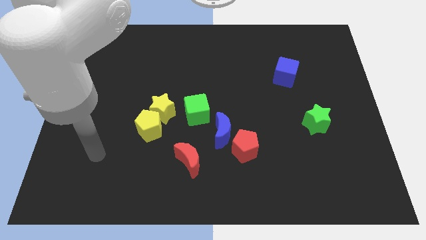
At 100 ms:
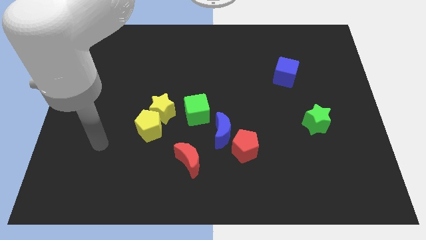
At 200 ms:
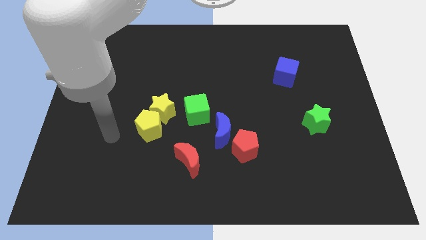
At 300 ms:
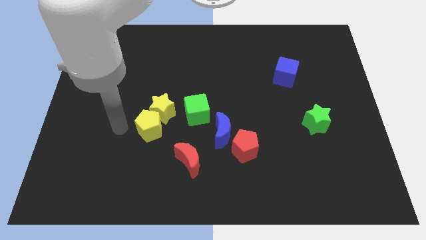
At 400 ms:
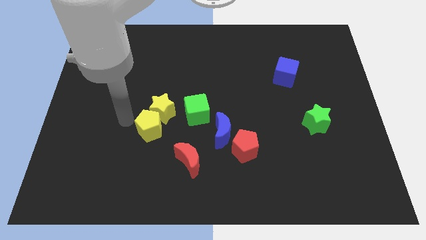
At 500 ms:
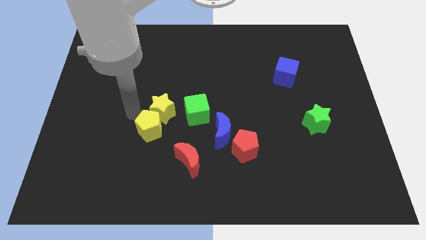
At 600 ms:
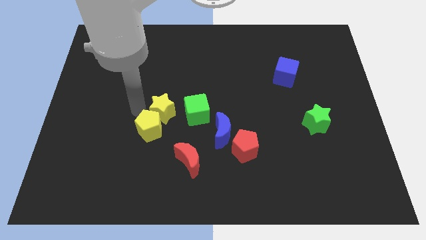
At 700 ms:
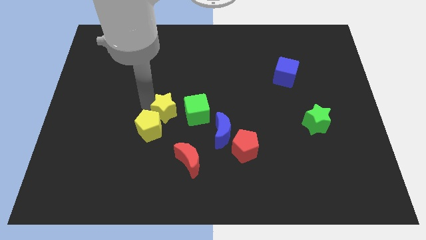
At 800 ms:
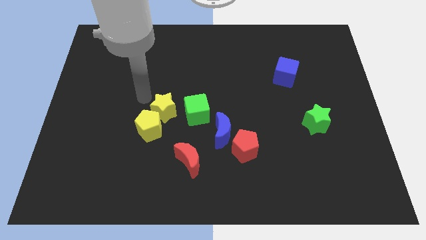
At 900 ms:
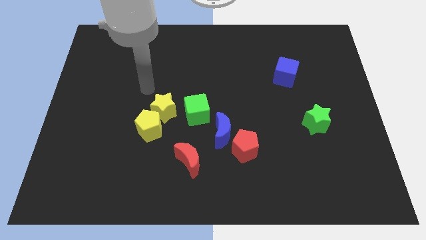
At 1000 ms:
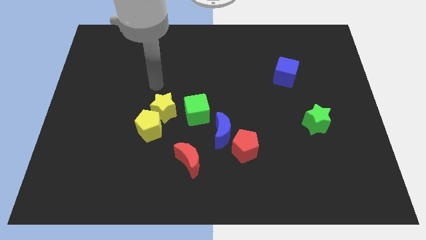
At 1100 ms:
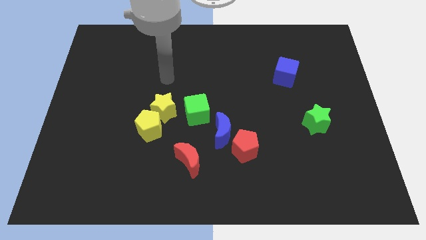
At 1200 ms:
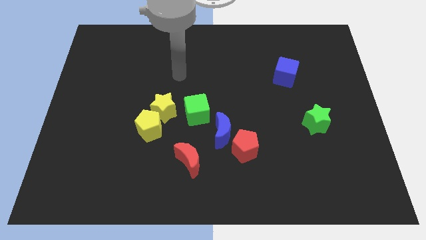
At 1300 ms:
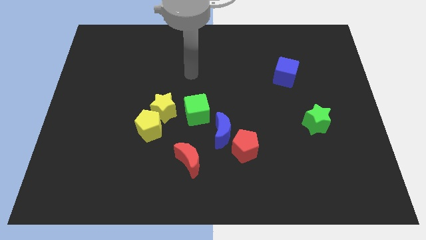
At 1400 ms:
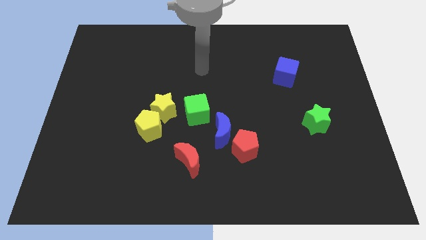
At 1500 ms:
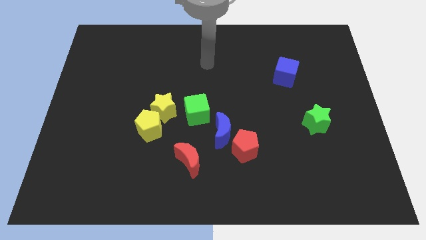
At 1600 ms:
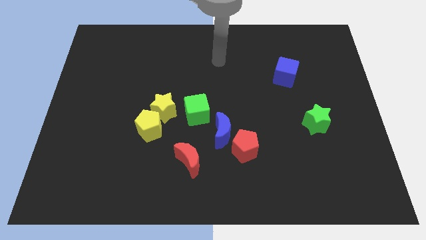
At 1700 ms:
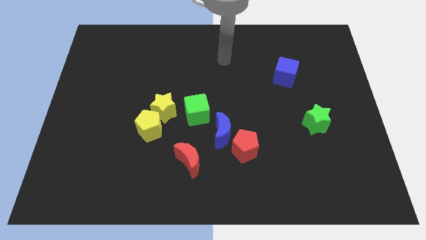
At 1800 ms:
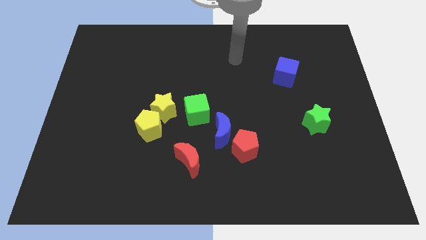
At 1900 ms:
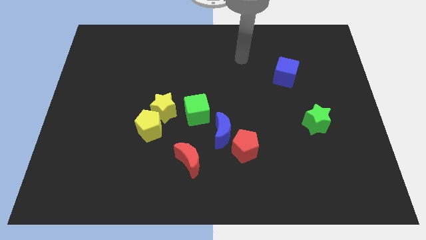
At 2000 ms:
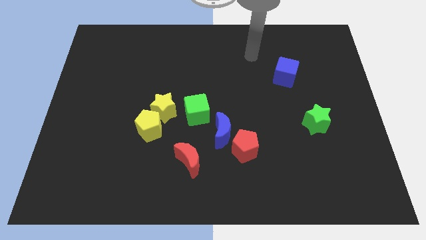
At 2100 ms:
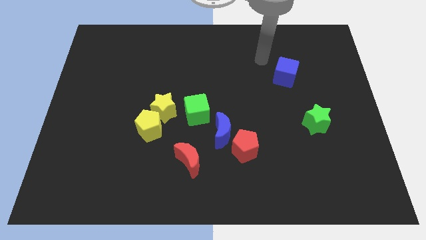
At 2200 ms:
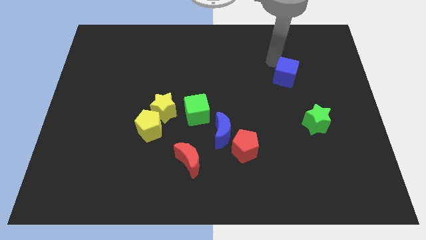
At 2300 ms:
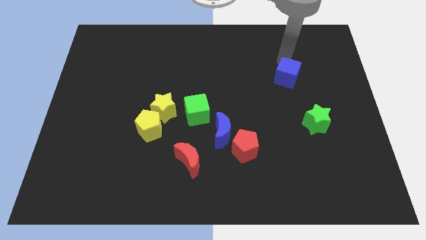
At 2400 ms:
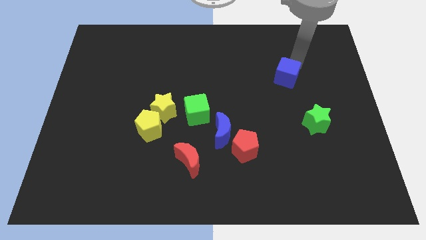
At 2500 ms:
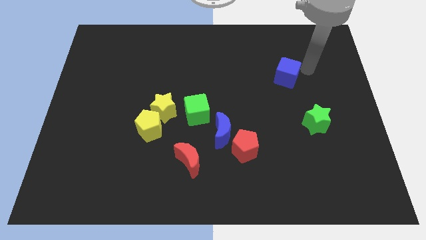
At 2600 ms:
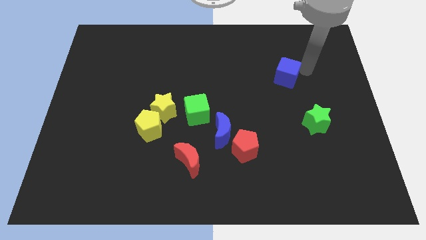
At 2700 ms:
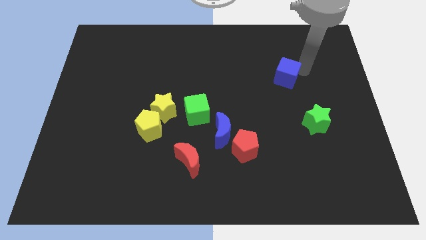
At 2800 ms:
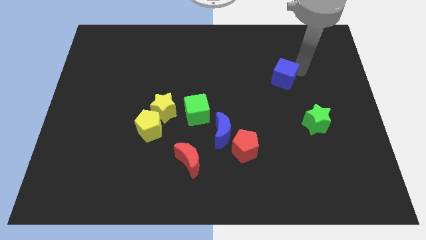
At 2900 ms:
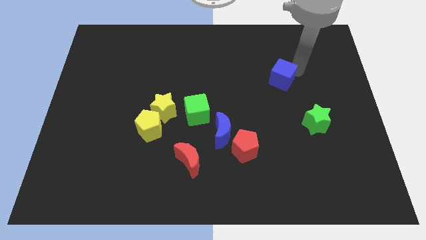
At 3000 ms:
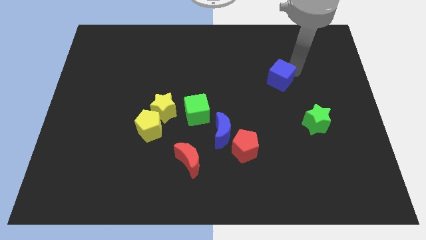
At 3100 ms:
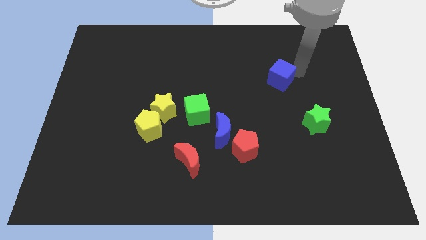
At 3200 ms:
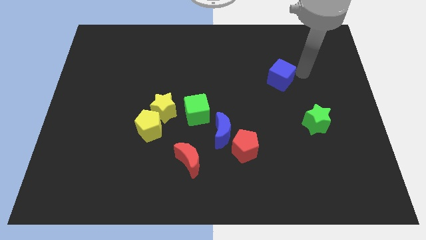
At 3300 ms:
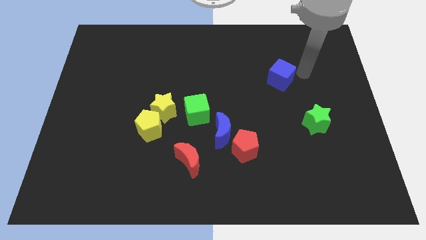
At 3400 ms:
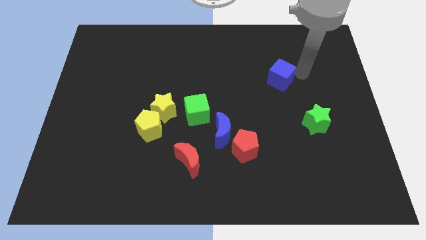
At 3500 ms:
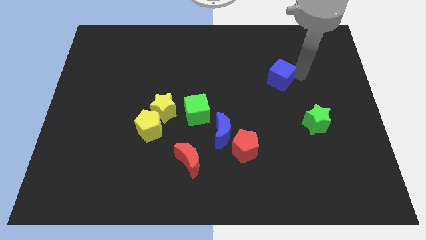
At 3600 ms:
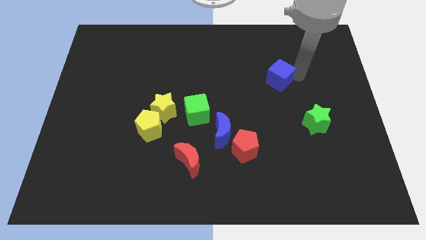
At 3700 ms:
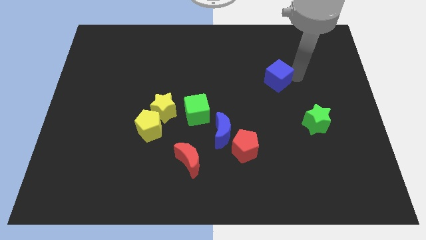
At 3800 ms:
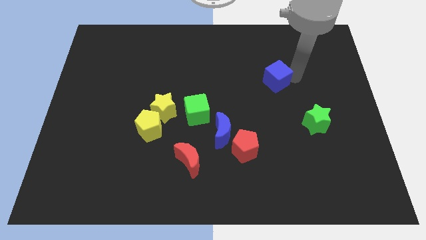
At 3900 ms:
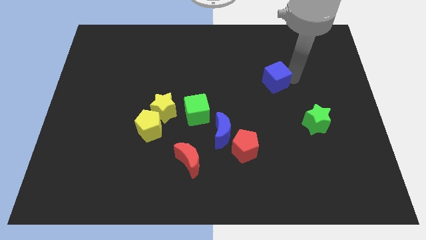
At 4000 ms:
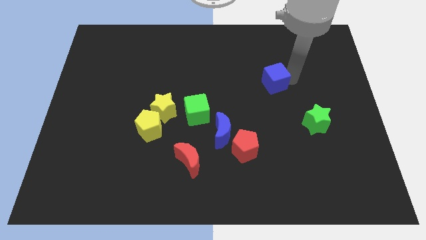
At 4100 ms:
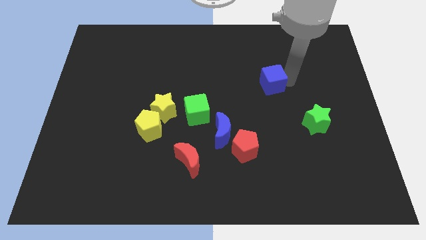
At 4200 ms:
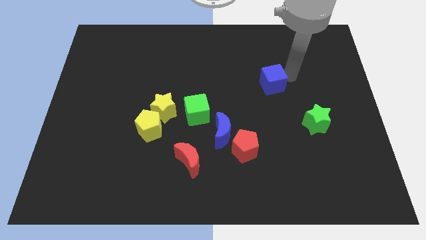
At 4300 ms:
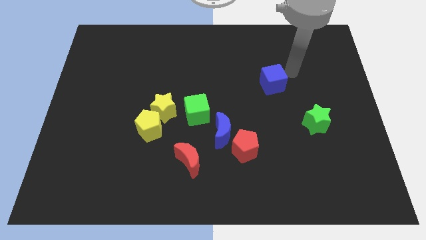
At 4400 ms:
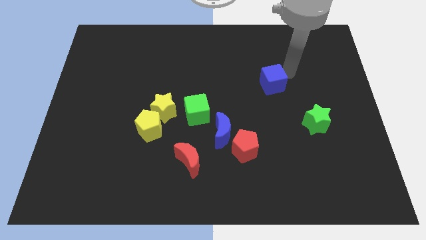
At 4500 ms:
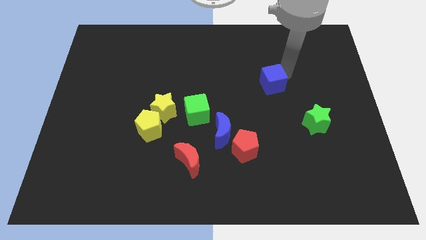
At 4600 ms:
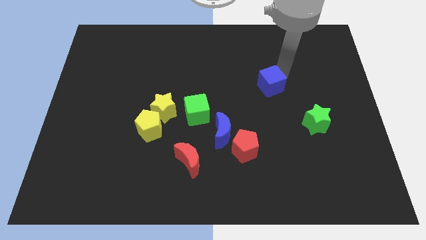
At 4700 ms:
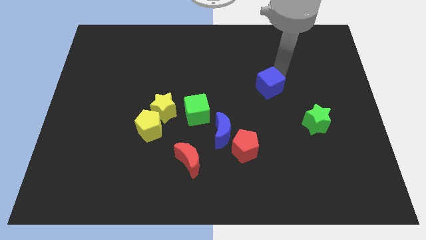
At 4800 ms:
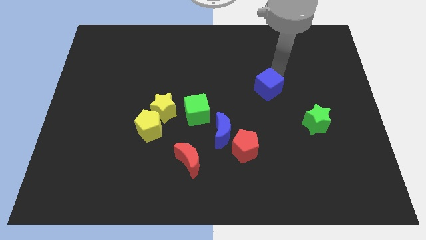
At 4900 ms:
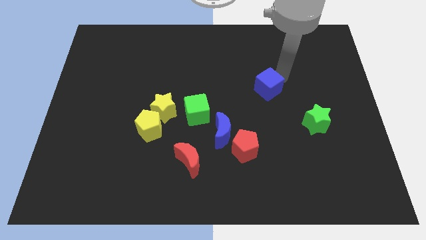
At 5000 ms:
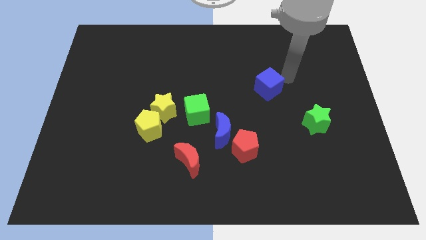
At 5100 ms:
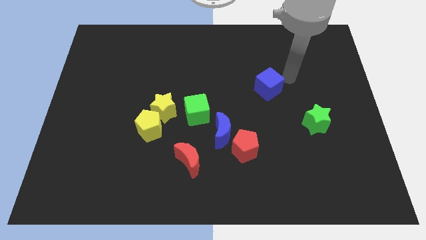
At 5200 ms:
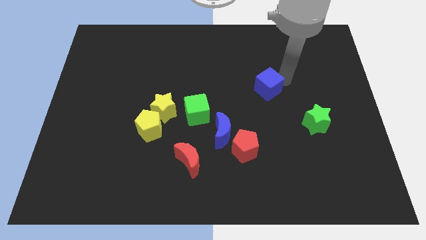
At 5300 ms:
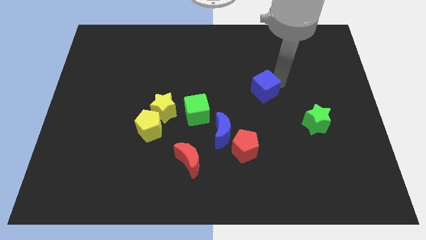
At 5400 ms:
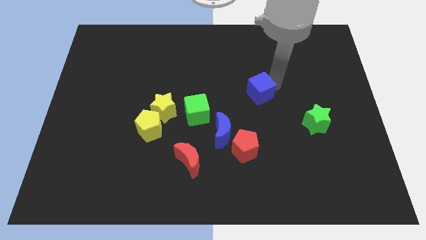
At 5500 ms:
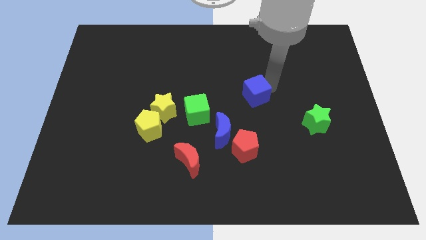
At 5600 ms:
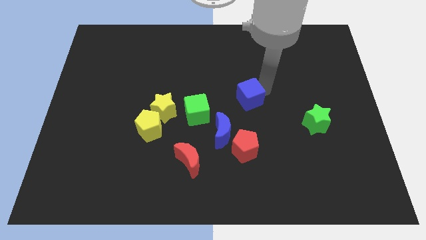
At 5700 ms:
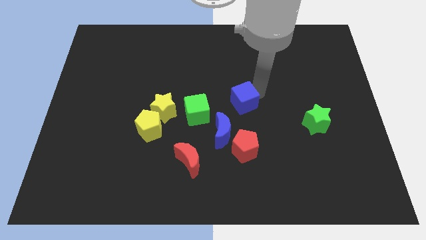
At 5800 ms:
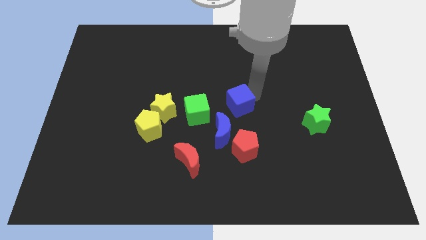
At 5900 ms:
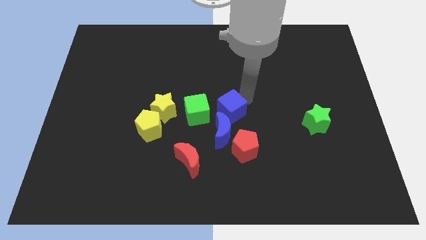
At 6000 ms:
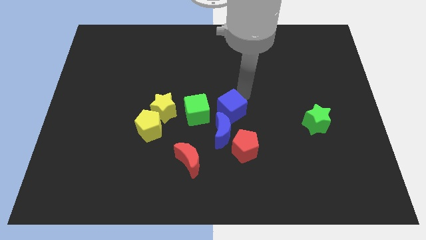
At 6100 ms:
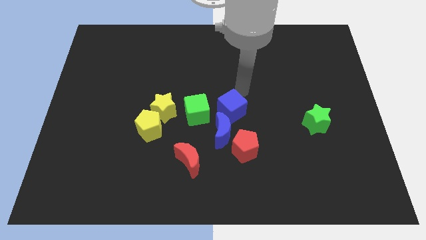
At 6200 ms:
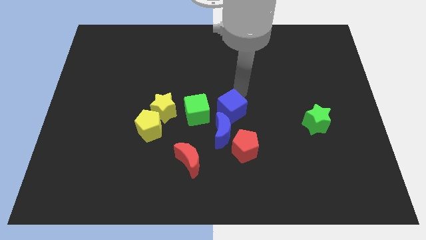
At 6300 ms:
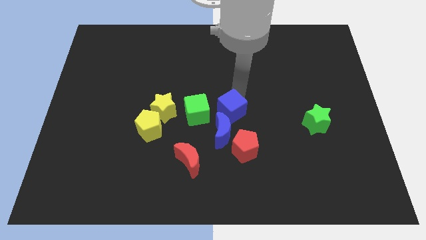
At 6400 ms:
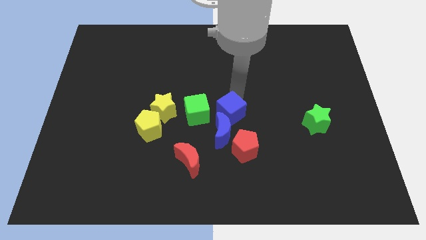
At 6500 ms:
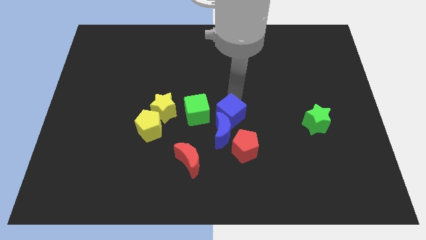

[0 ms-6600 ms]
move the blue cube to the top left of the red pentagon

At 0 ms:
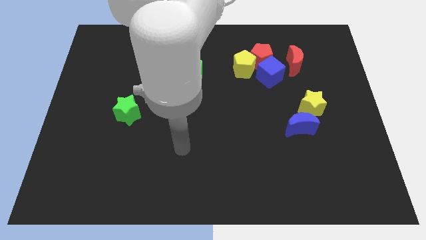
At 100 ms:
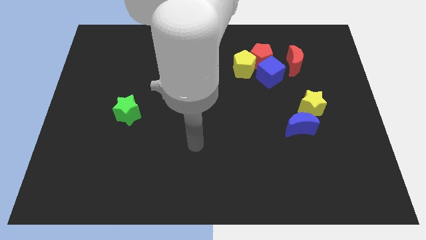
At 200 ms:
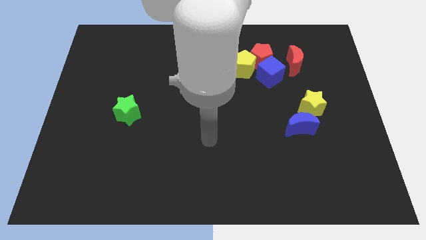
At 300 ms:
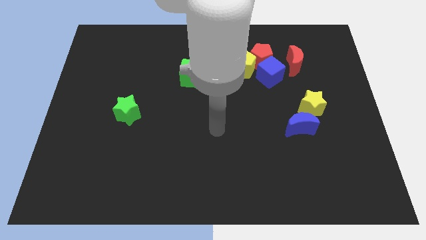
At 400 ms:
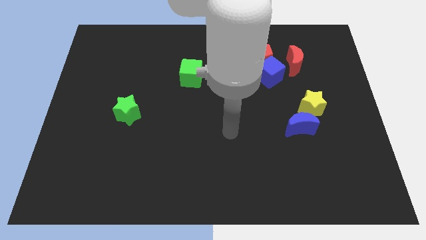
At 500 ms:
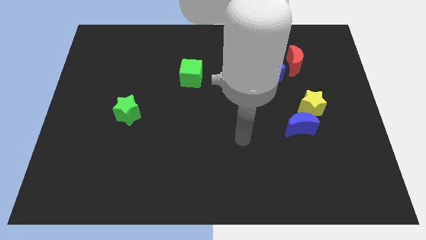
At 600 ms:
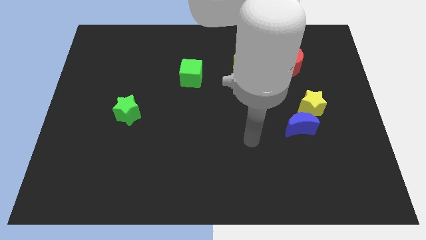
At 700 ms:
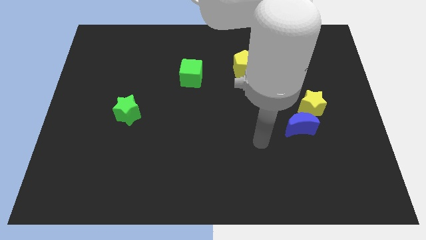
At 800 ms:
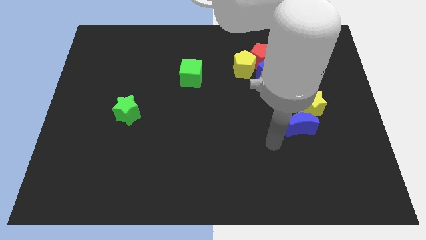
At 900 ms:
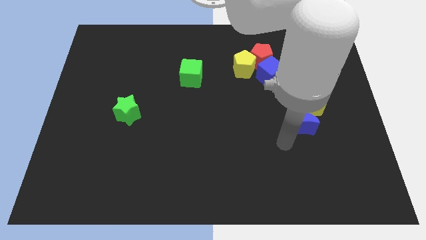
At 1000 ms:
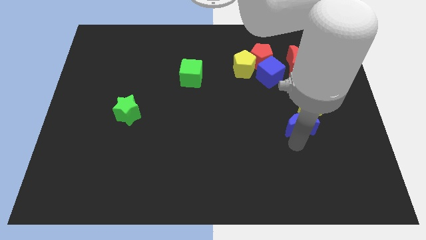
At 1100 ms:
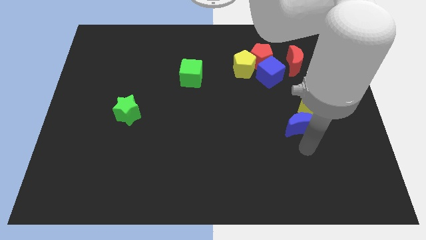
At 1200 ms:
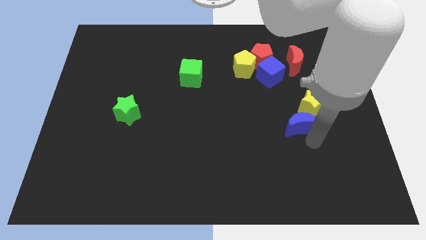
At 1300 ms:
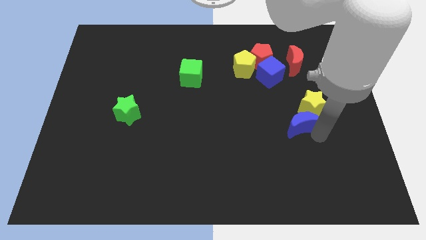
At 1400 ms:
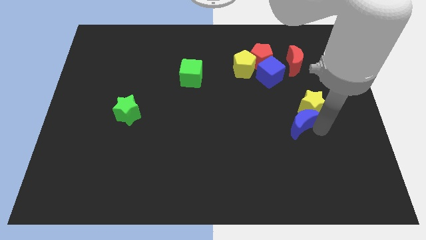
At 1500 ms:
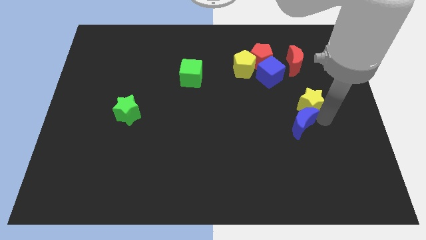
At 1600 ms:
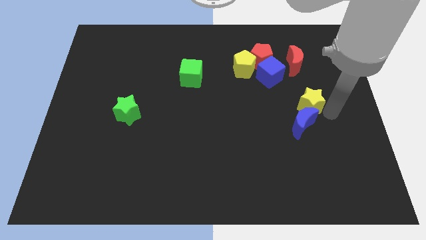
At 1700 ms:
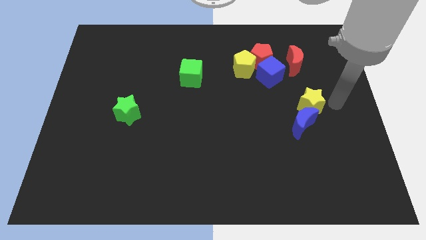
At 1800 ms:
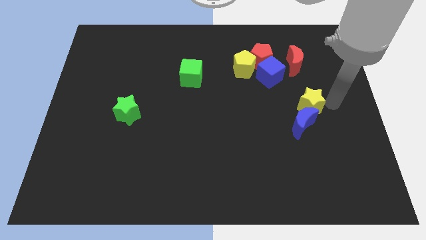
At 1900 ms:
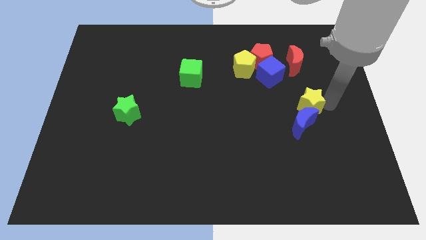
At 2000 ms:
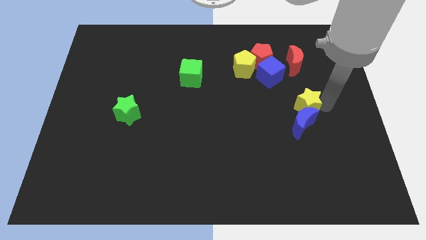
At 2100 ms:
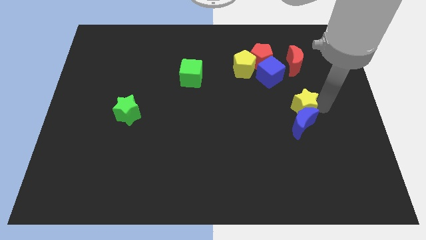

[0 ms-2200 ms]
put the yellow star to the top left side of the blue moon
